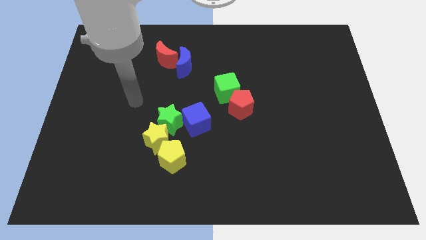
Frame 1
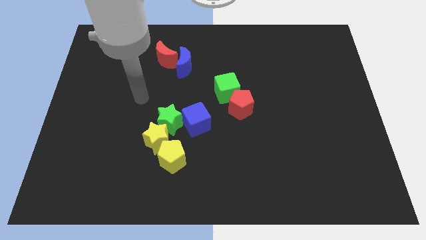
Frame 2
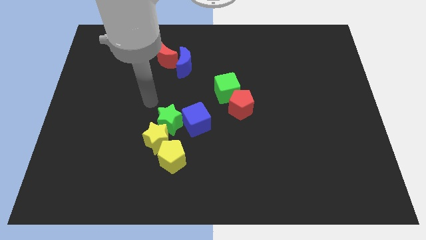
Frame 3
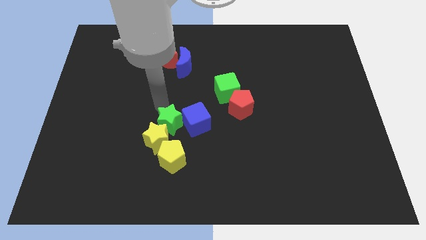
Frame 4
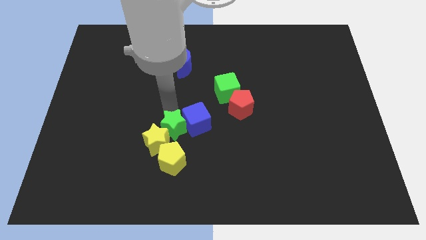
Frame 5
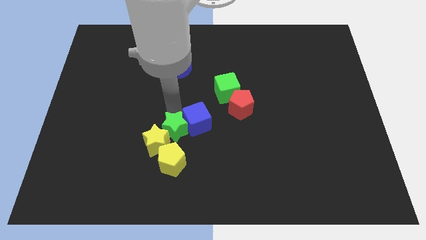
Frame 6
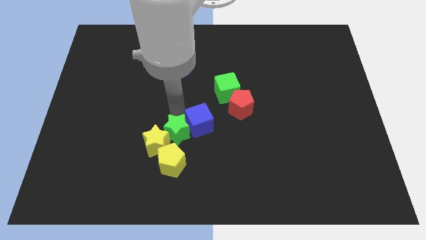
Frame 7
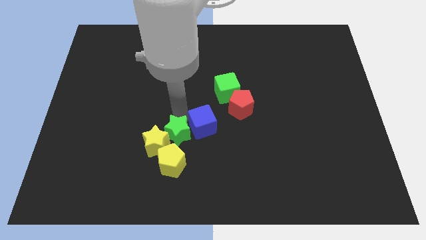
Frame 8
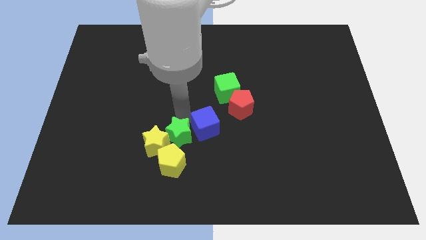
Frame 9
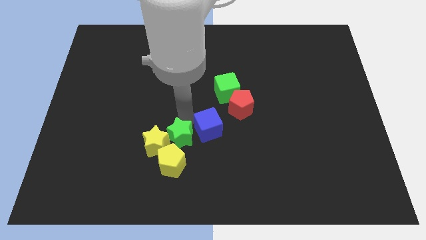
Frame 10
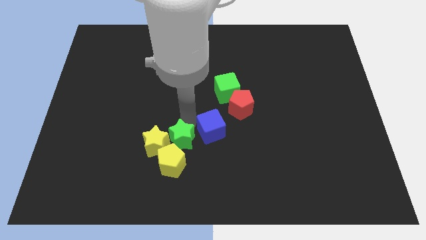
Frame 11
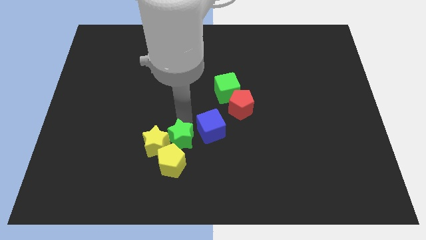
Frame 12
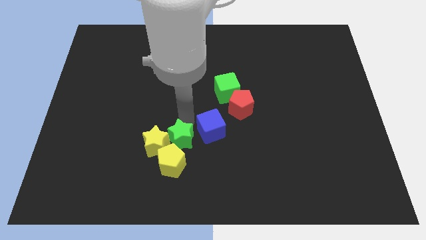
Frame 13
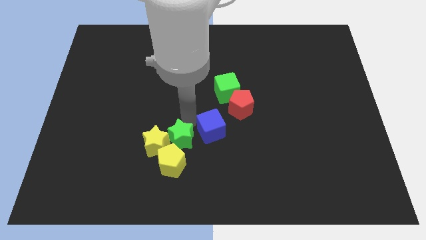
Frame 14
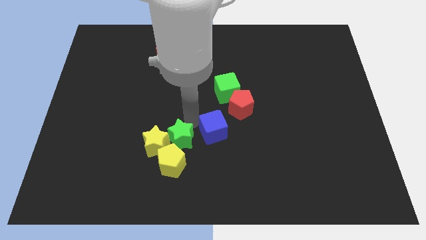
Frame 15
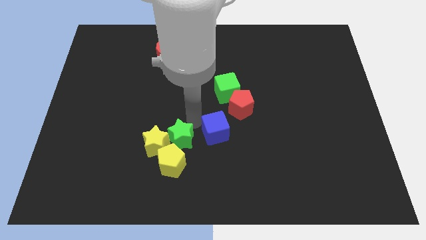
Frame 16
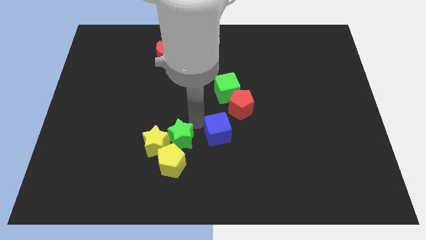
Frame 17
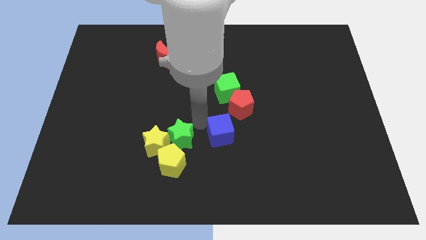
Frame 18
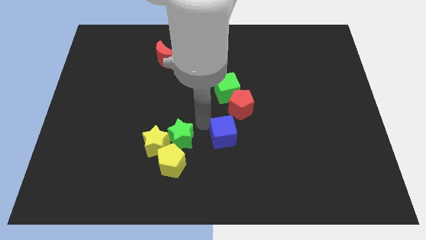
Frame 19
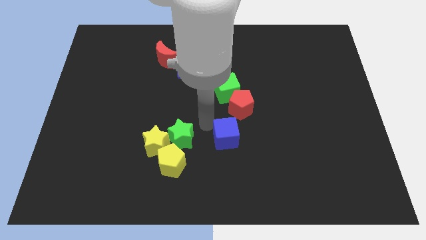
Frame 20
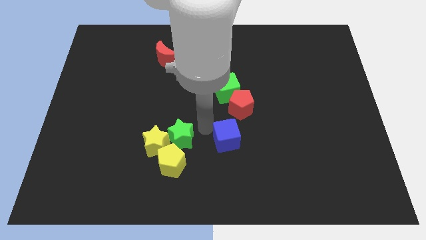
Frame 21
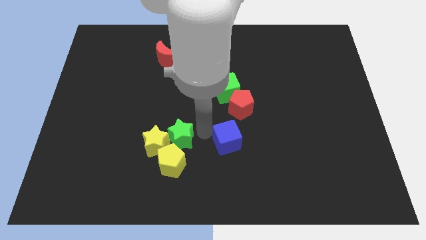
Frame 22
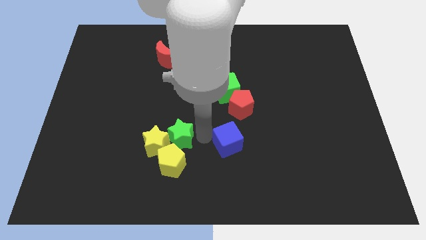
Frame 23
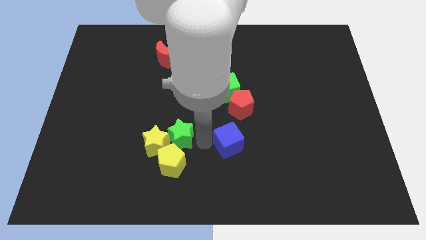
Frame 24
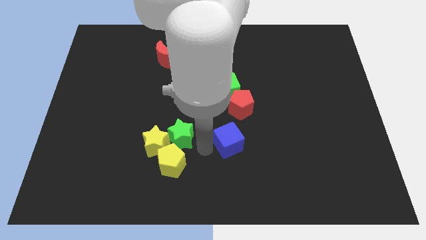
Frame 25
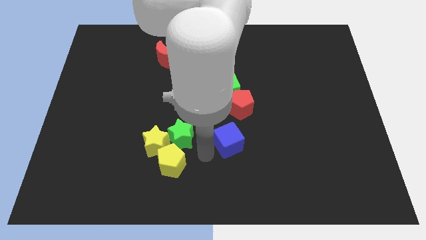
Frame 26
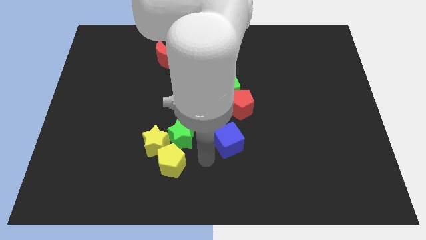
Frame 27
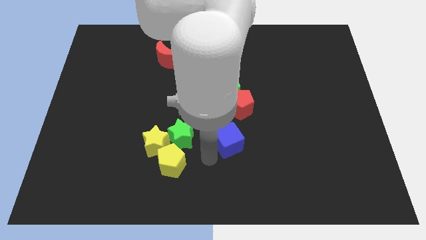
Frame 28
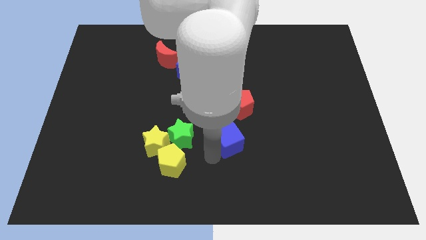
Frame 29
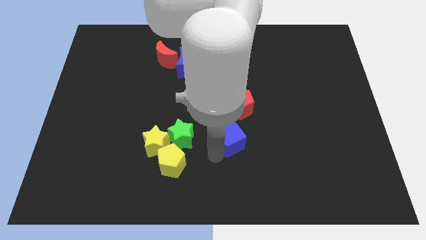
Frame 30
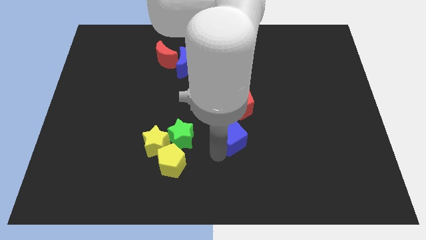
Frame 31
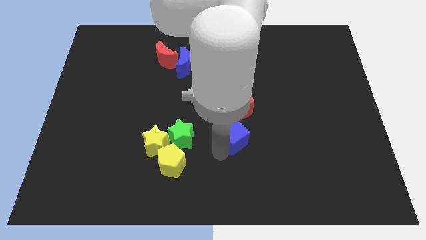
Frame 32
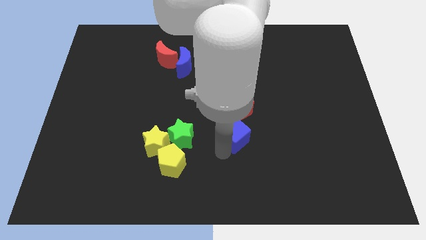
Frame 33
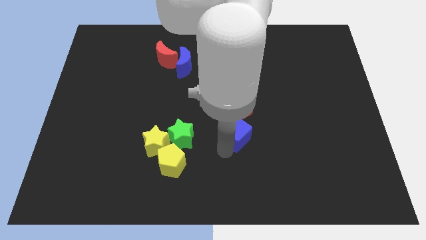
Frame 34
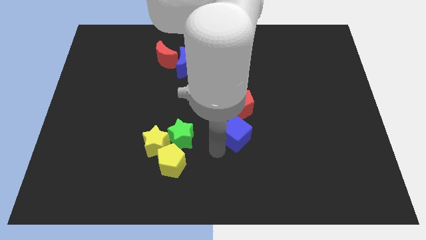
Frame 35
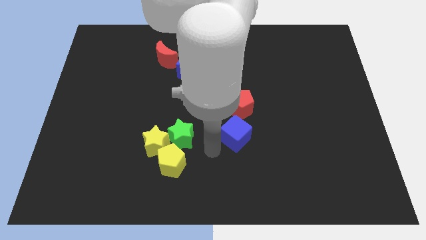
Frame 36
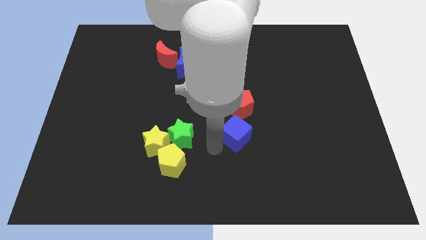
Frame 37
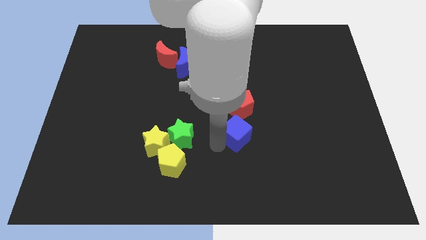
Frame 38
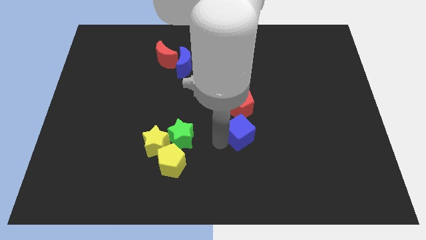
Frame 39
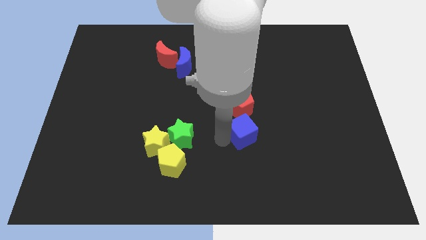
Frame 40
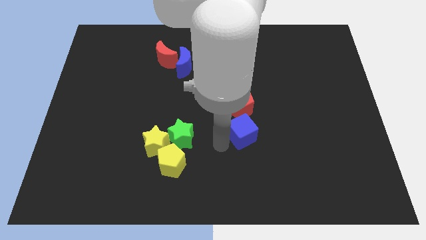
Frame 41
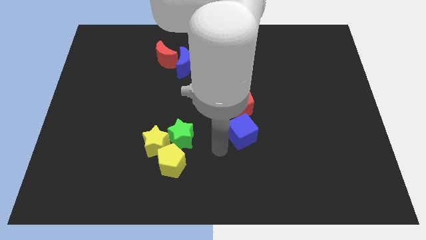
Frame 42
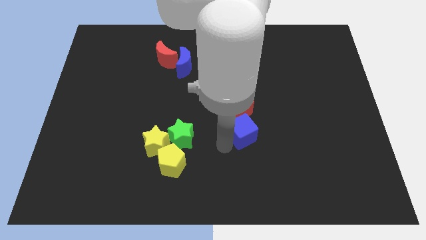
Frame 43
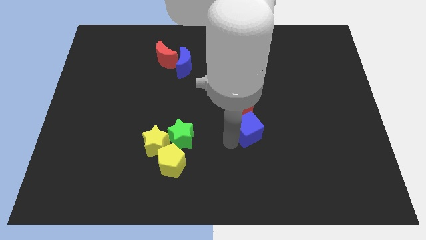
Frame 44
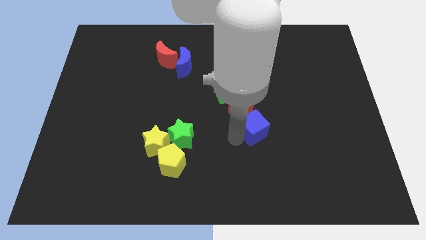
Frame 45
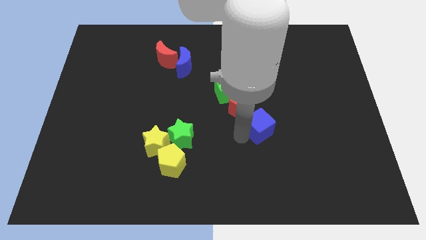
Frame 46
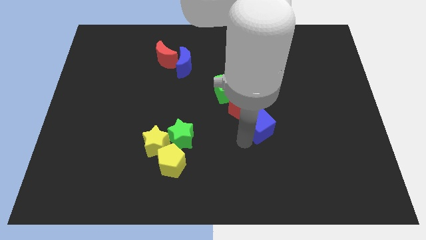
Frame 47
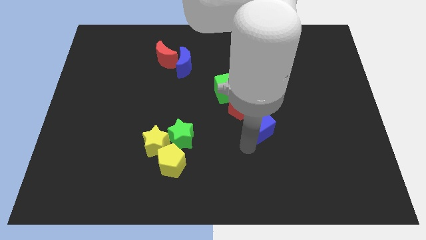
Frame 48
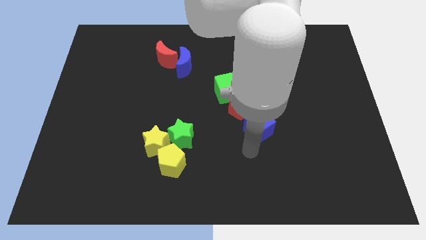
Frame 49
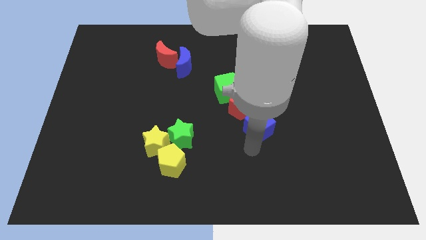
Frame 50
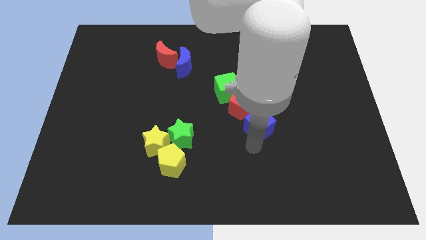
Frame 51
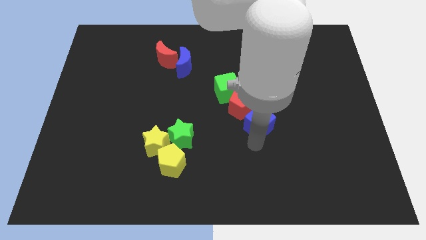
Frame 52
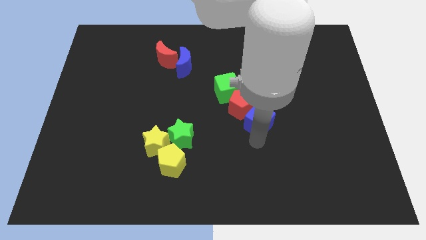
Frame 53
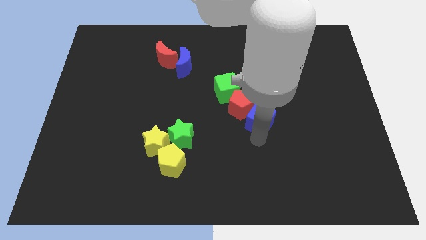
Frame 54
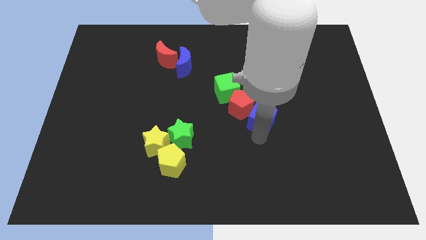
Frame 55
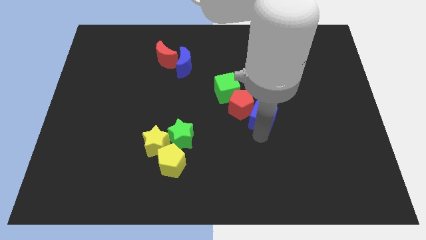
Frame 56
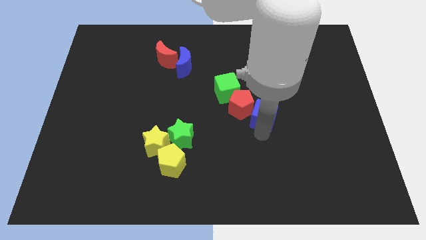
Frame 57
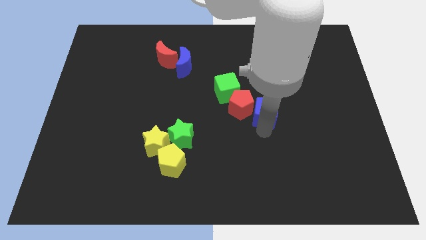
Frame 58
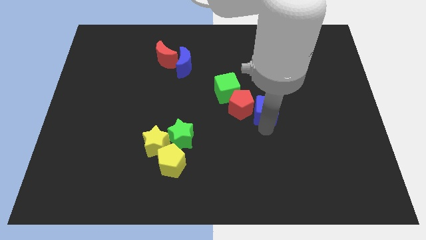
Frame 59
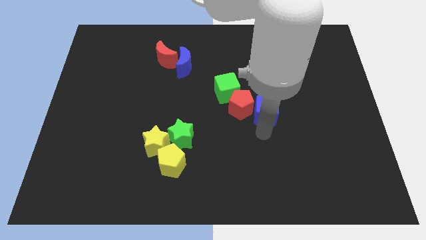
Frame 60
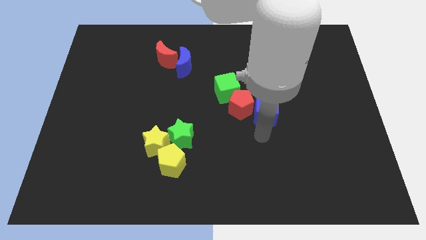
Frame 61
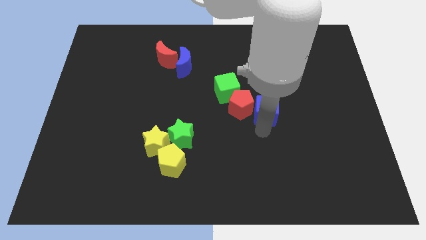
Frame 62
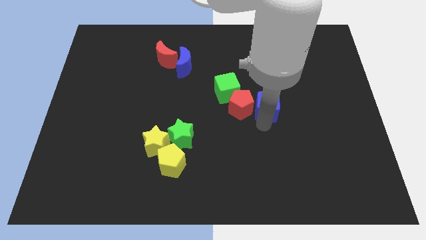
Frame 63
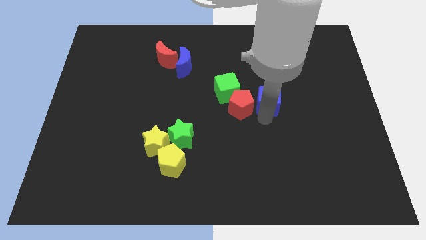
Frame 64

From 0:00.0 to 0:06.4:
move the blue cube just right of the green cube

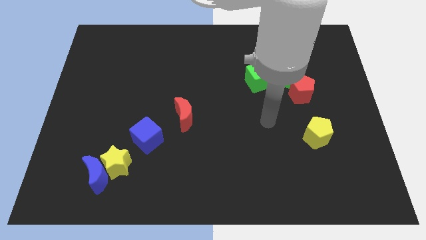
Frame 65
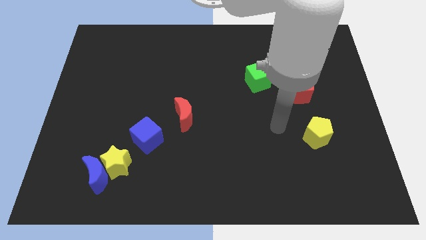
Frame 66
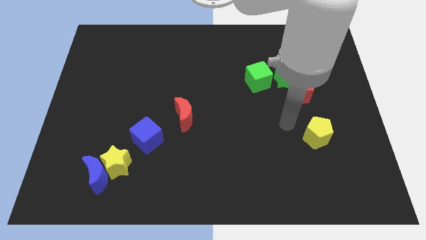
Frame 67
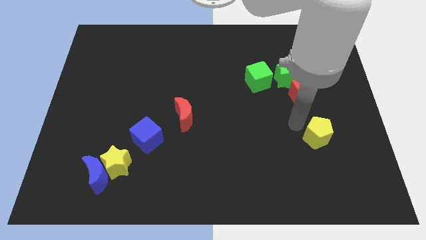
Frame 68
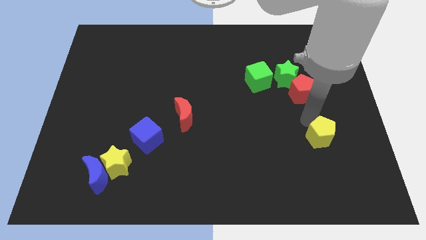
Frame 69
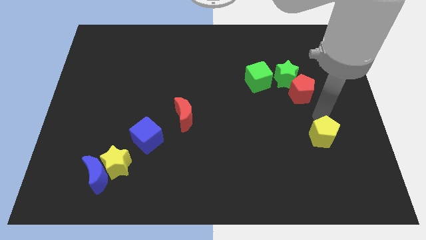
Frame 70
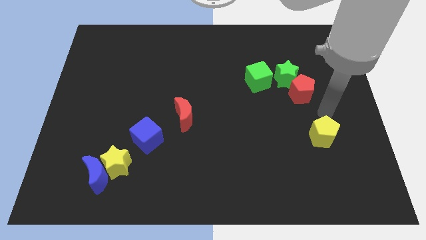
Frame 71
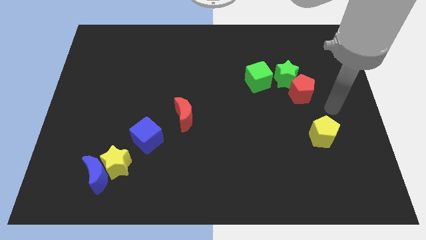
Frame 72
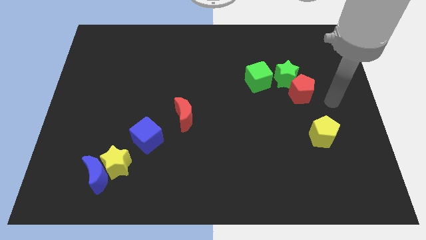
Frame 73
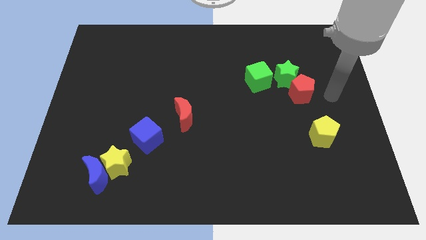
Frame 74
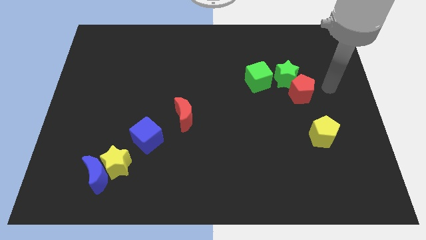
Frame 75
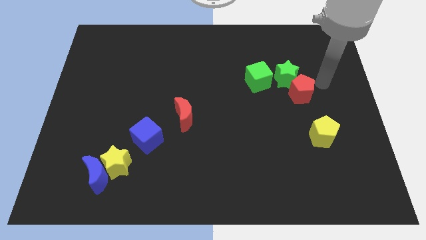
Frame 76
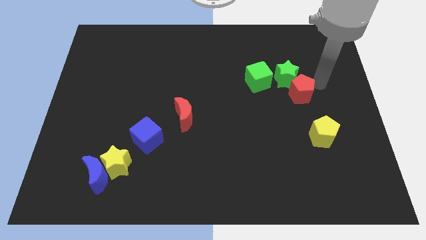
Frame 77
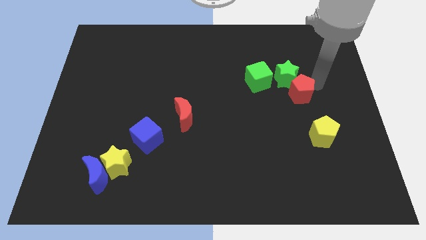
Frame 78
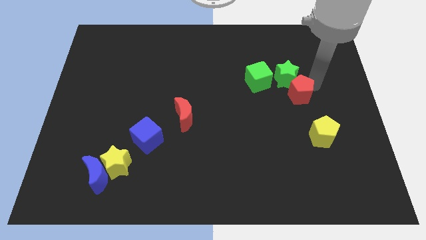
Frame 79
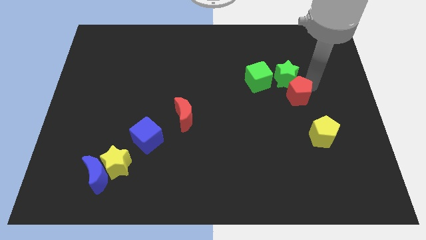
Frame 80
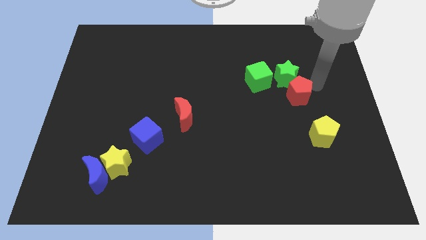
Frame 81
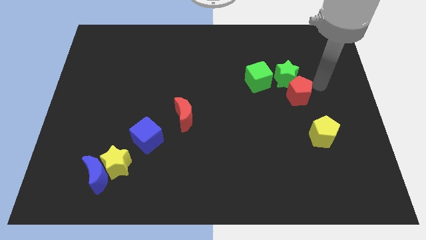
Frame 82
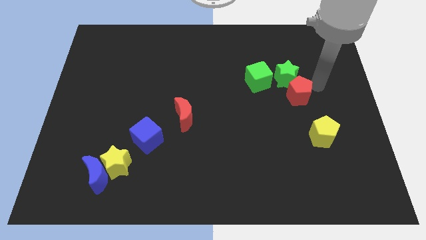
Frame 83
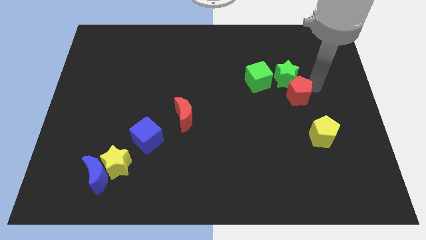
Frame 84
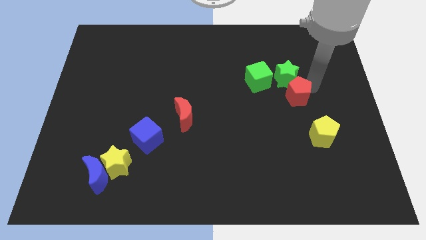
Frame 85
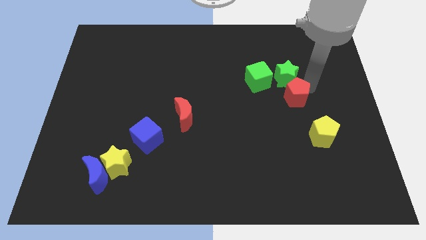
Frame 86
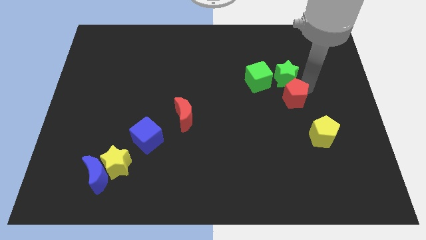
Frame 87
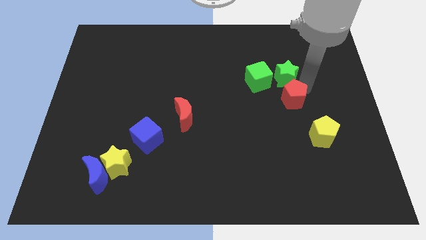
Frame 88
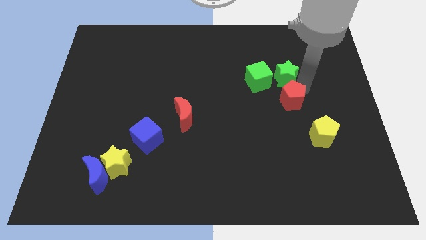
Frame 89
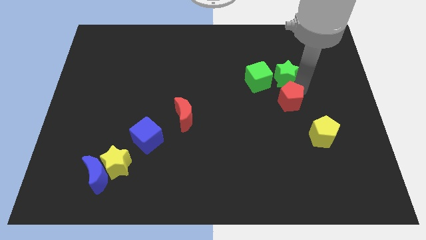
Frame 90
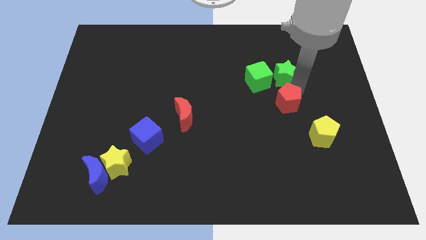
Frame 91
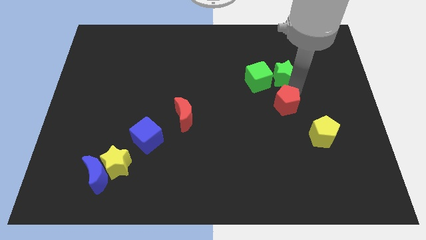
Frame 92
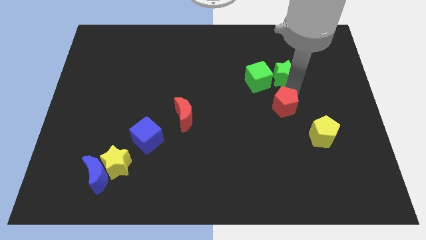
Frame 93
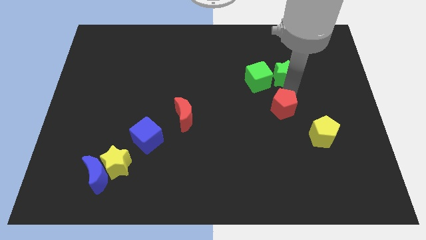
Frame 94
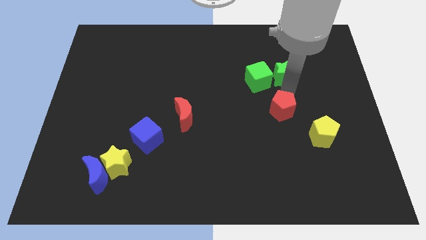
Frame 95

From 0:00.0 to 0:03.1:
move the red pentagon below the green cube
